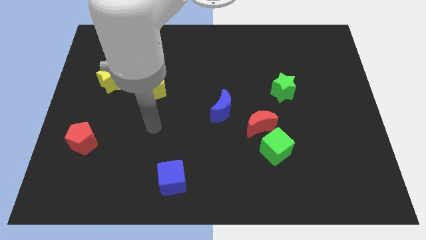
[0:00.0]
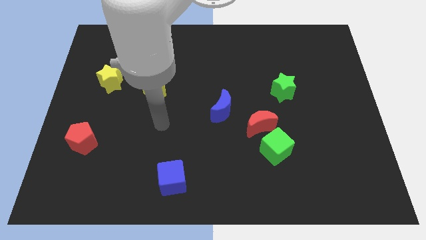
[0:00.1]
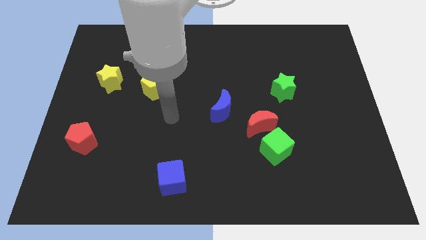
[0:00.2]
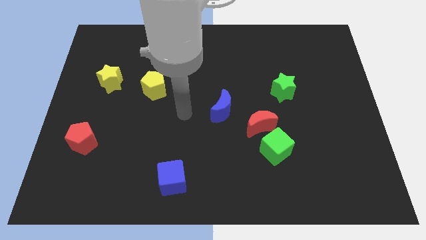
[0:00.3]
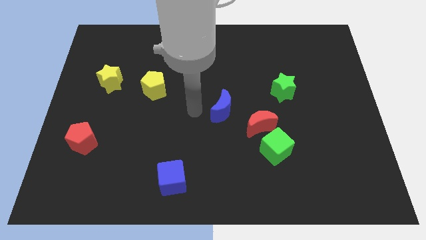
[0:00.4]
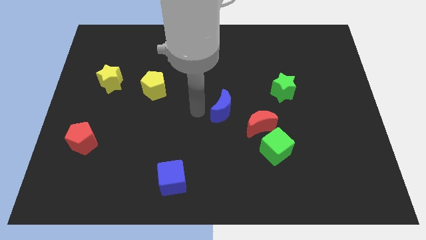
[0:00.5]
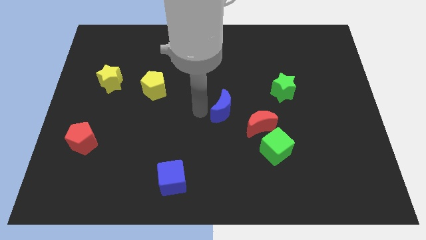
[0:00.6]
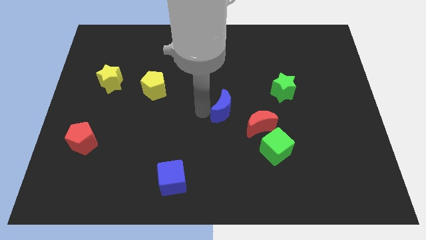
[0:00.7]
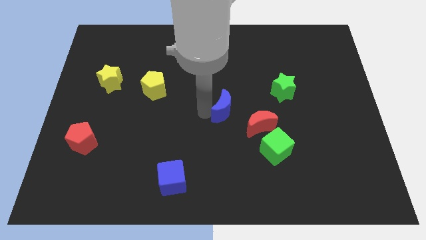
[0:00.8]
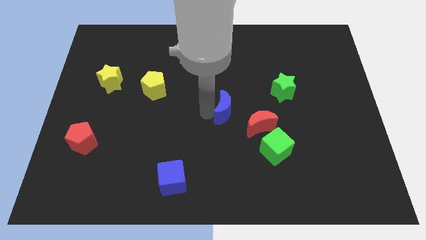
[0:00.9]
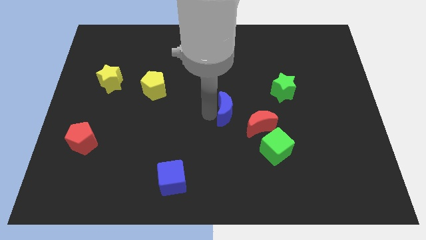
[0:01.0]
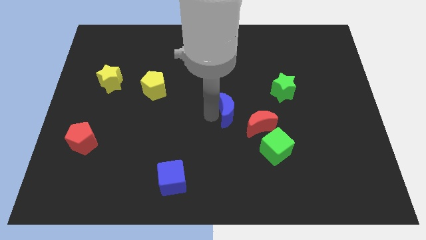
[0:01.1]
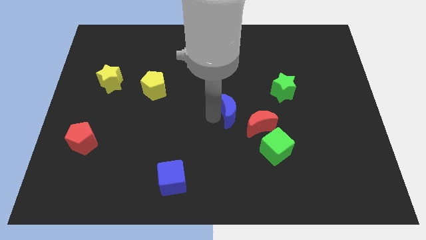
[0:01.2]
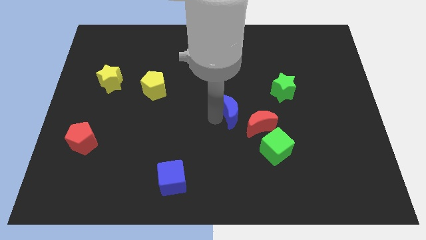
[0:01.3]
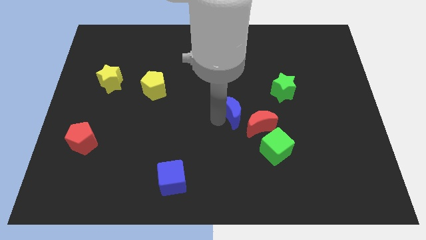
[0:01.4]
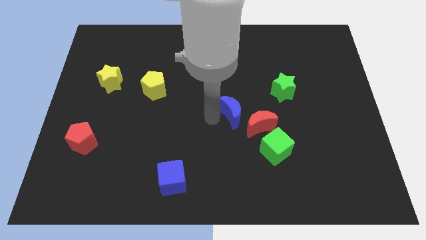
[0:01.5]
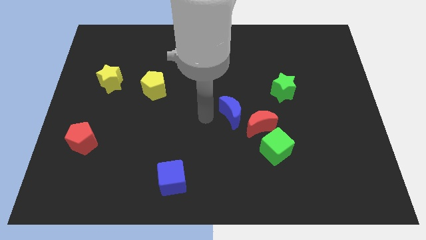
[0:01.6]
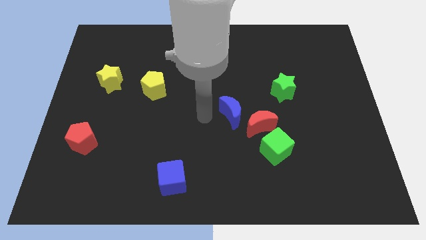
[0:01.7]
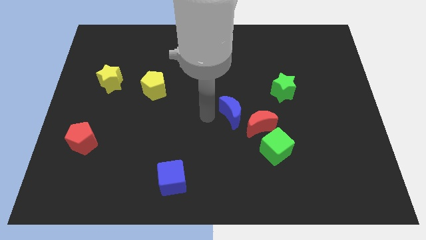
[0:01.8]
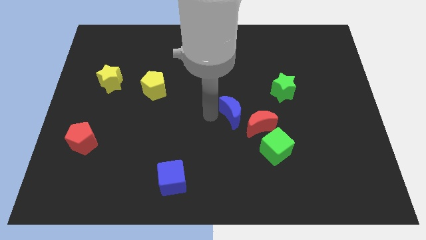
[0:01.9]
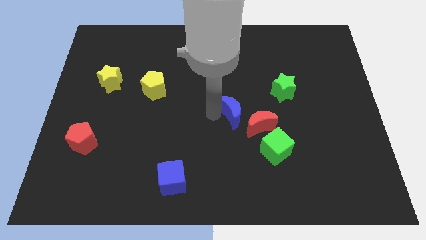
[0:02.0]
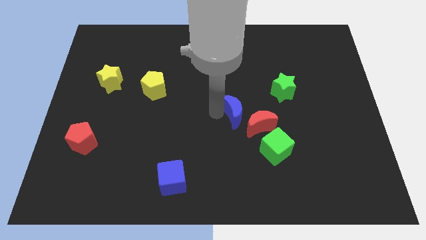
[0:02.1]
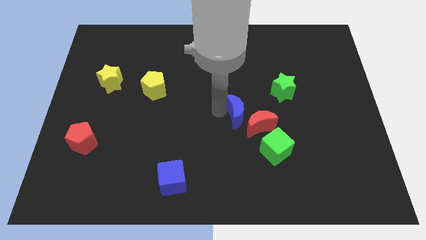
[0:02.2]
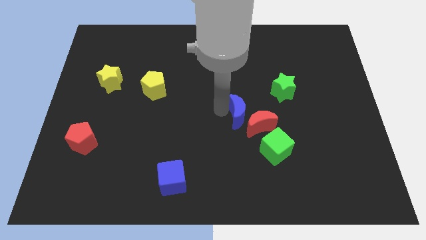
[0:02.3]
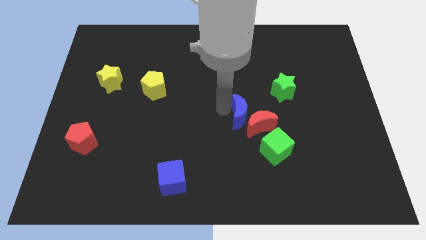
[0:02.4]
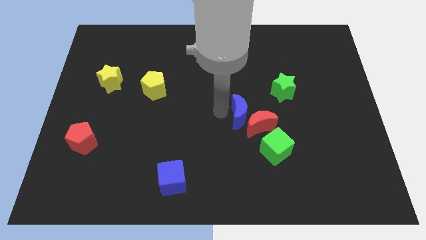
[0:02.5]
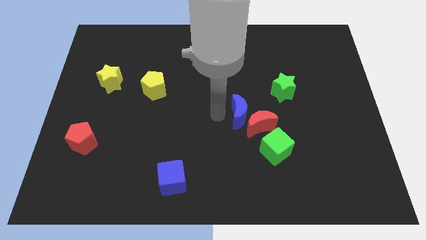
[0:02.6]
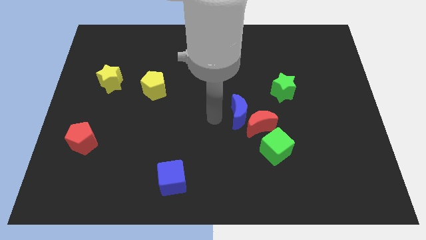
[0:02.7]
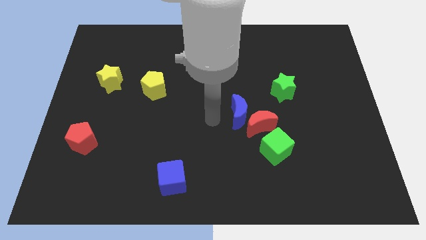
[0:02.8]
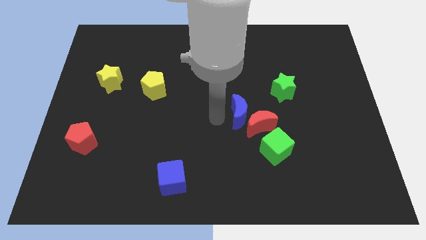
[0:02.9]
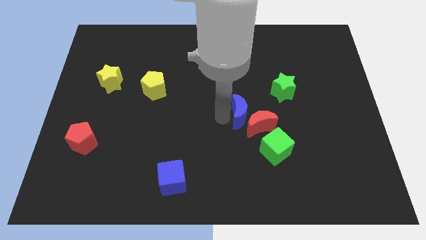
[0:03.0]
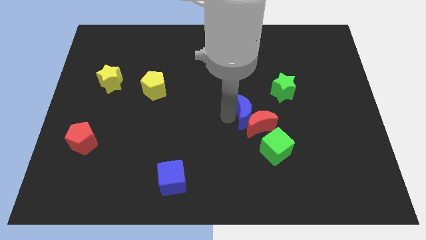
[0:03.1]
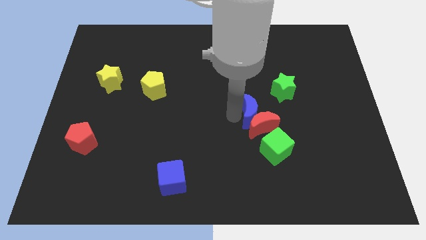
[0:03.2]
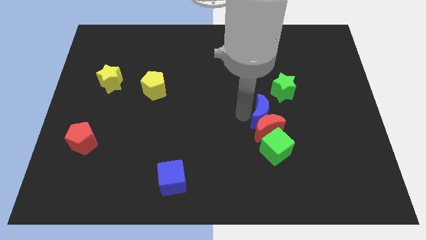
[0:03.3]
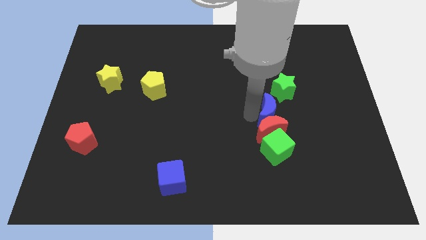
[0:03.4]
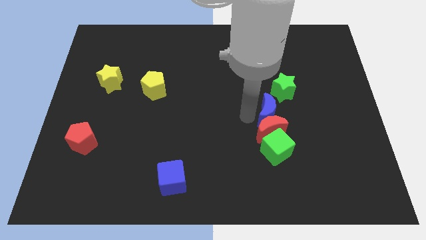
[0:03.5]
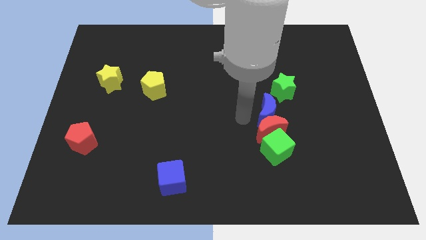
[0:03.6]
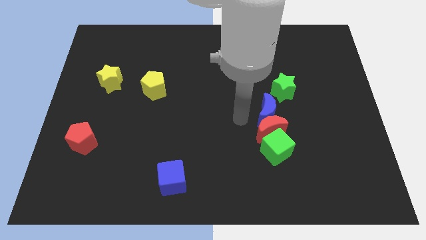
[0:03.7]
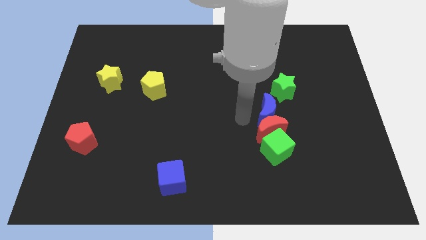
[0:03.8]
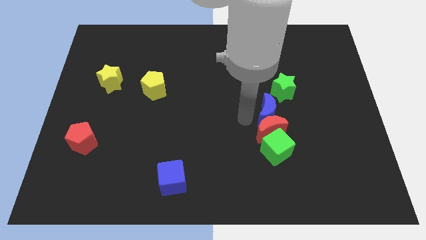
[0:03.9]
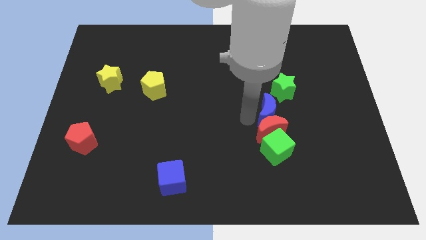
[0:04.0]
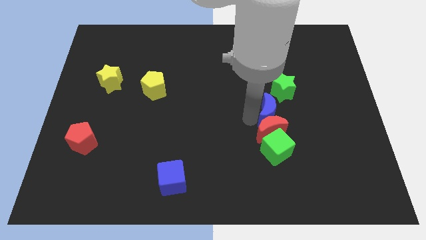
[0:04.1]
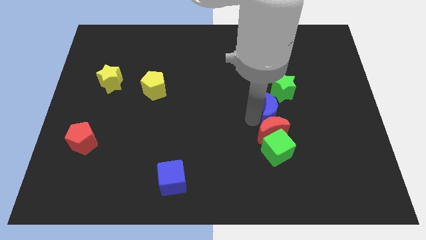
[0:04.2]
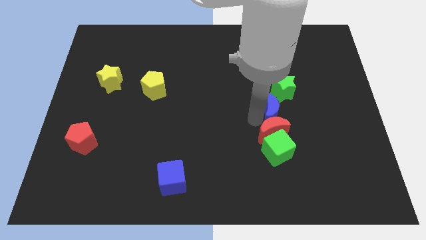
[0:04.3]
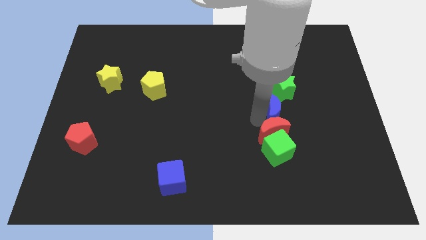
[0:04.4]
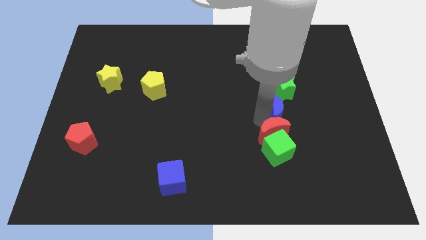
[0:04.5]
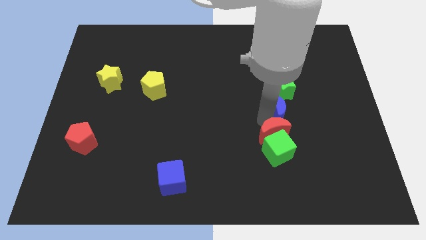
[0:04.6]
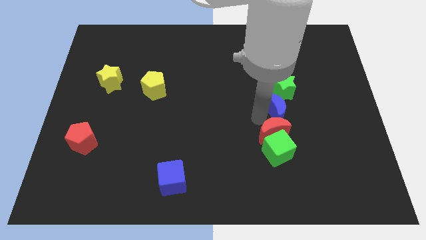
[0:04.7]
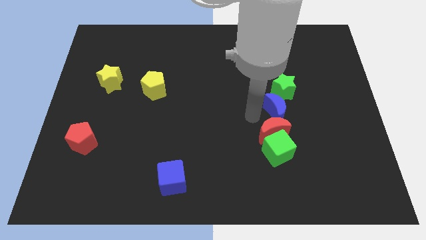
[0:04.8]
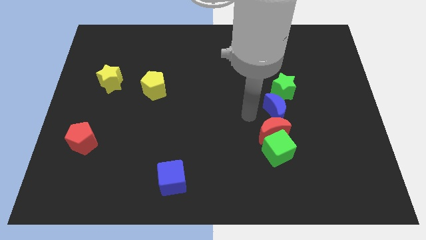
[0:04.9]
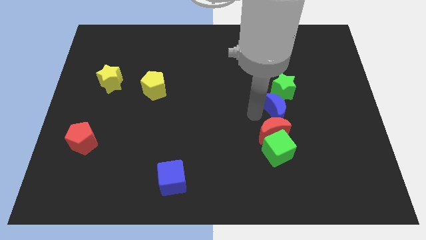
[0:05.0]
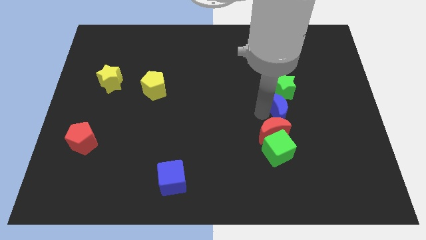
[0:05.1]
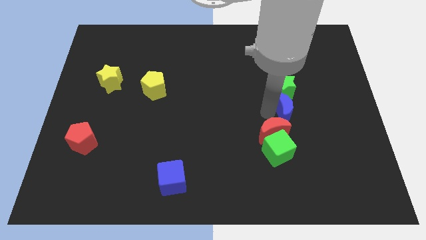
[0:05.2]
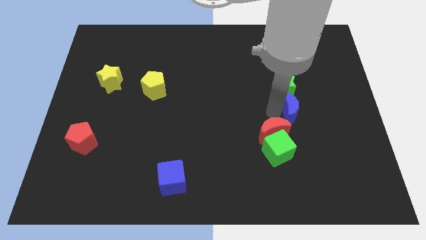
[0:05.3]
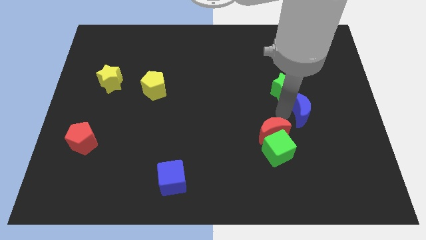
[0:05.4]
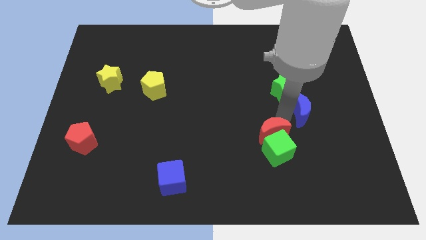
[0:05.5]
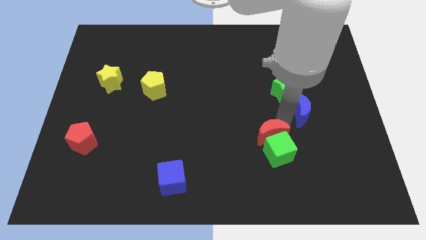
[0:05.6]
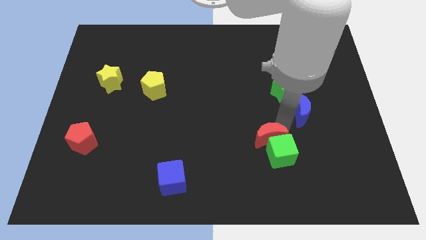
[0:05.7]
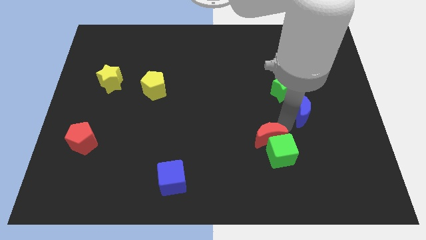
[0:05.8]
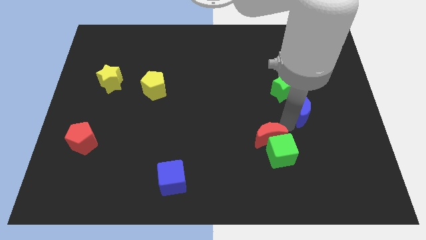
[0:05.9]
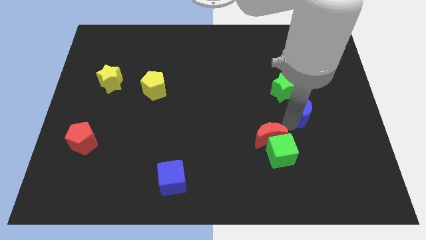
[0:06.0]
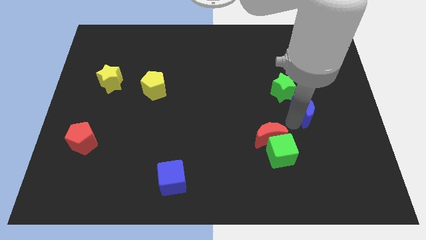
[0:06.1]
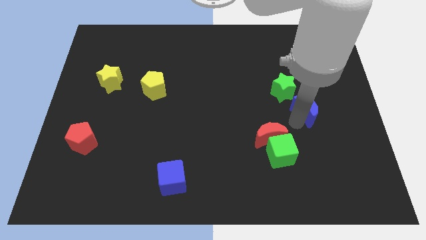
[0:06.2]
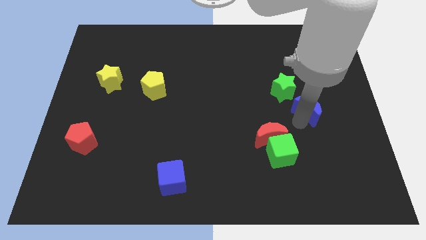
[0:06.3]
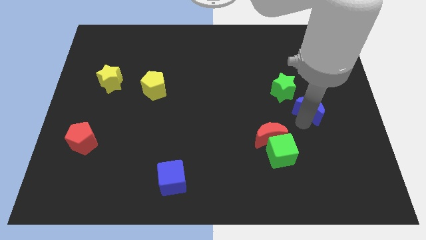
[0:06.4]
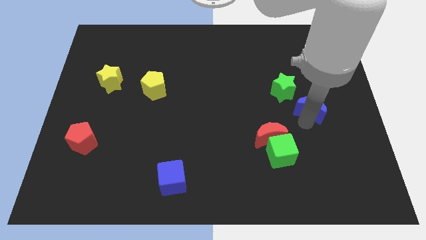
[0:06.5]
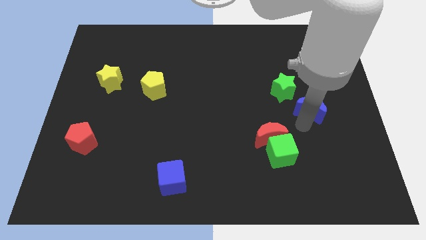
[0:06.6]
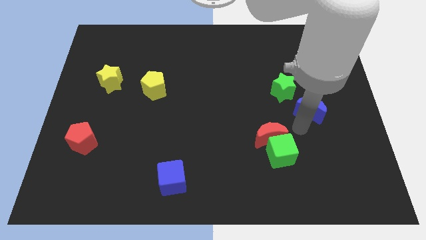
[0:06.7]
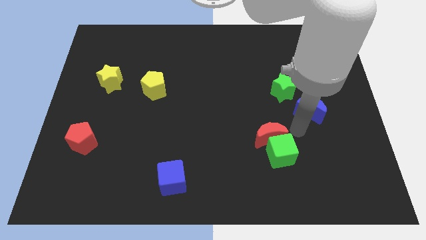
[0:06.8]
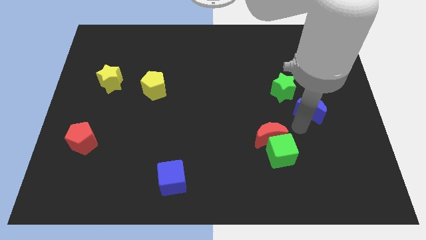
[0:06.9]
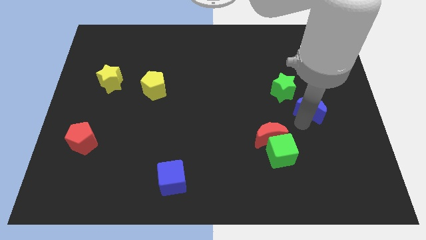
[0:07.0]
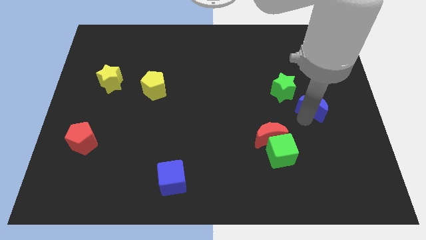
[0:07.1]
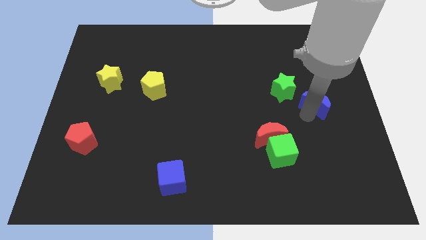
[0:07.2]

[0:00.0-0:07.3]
move the blue moon right of the green star
